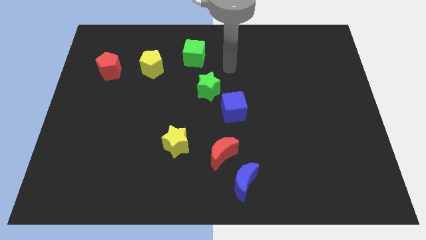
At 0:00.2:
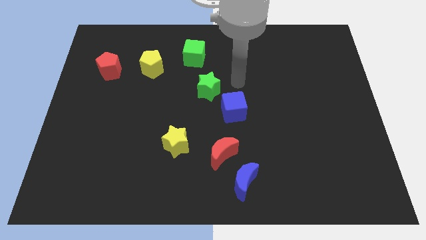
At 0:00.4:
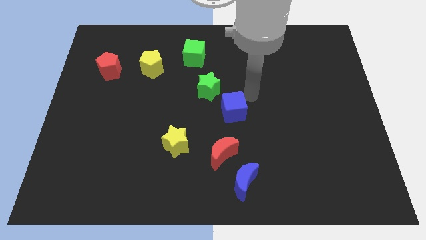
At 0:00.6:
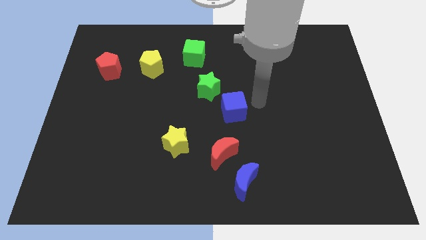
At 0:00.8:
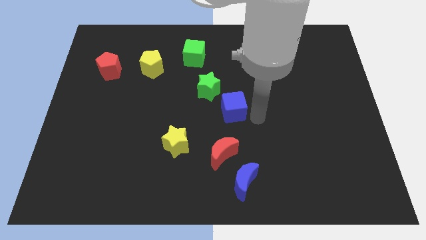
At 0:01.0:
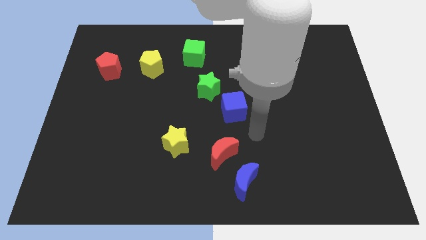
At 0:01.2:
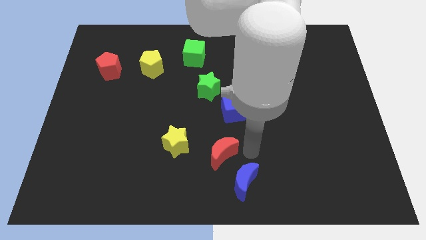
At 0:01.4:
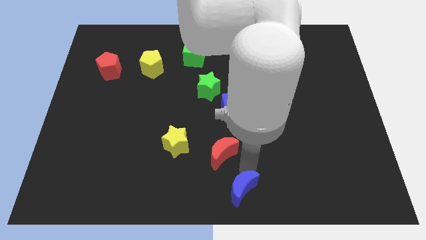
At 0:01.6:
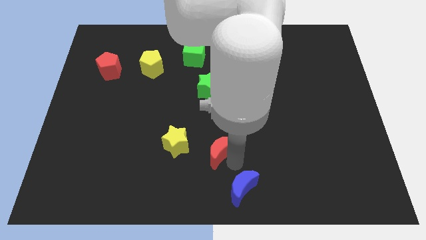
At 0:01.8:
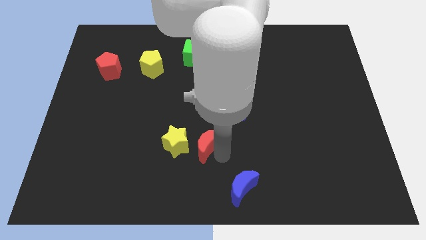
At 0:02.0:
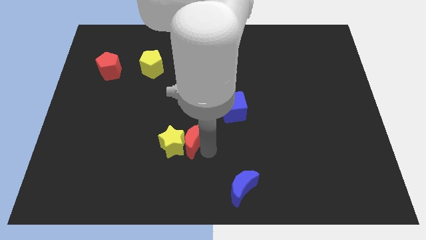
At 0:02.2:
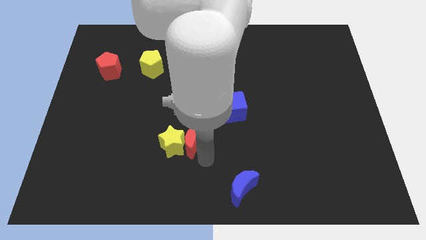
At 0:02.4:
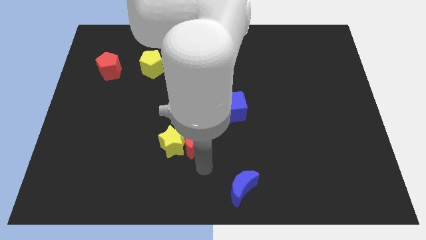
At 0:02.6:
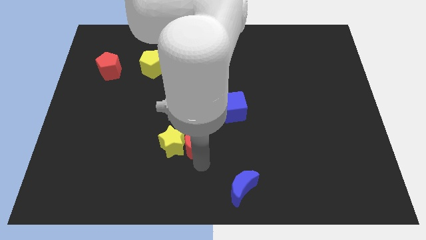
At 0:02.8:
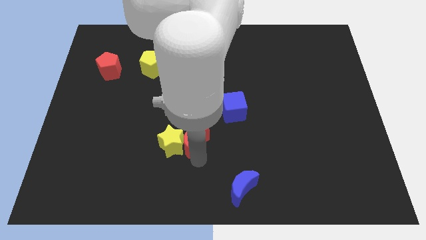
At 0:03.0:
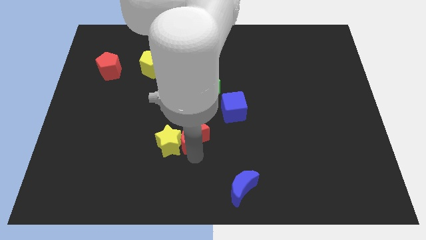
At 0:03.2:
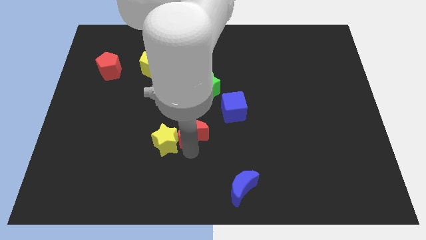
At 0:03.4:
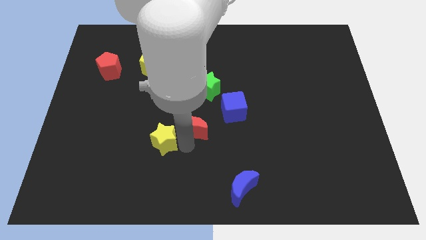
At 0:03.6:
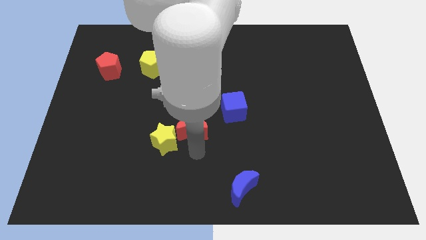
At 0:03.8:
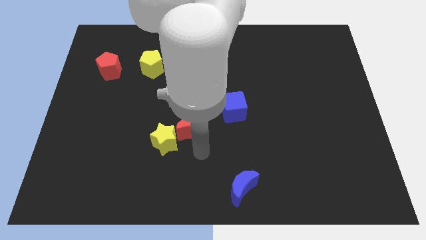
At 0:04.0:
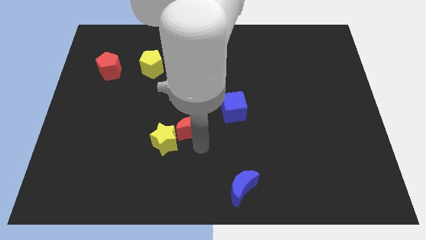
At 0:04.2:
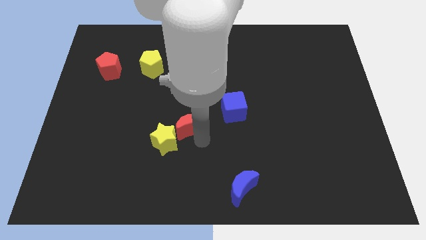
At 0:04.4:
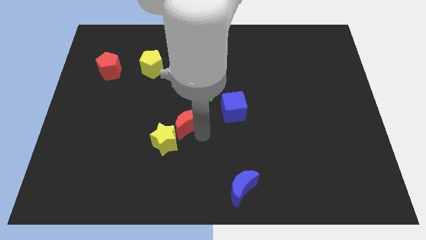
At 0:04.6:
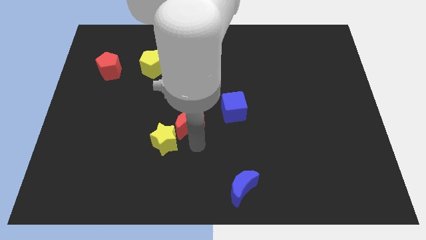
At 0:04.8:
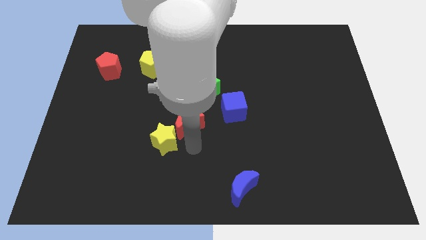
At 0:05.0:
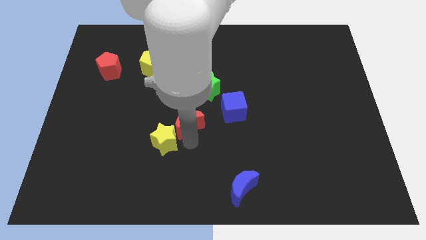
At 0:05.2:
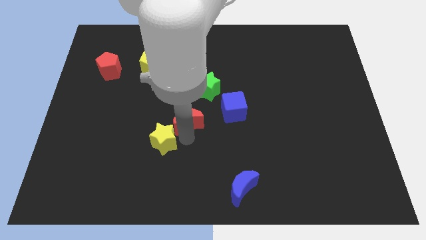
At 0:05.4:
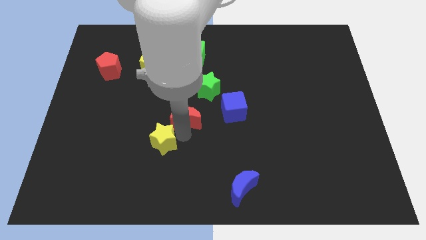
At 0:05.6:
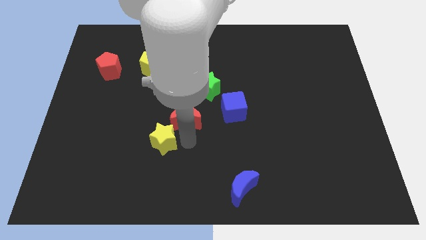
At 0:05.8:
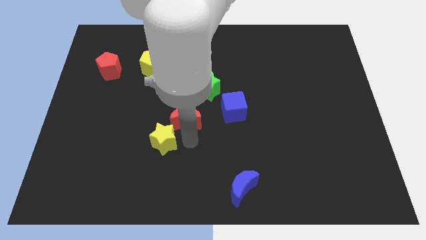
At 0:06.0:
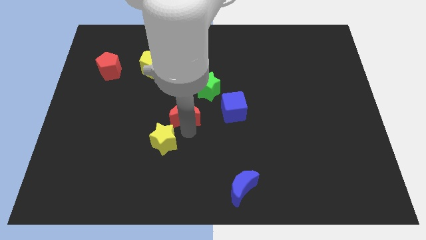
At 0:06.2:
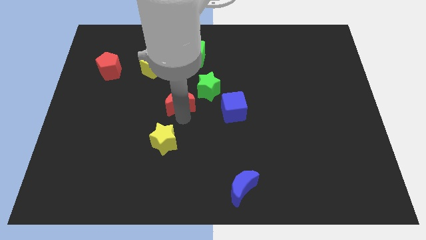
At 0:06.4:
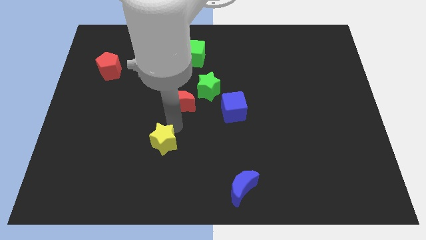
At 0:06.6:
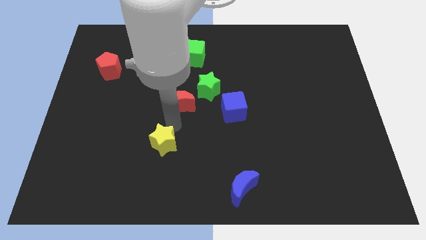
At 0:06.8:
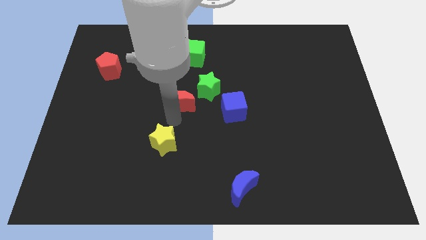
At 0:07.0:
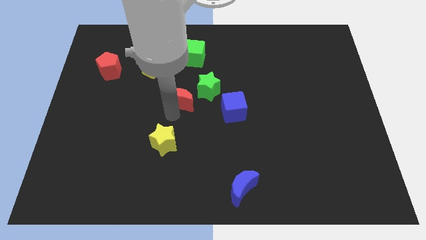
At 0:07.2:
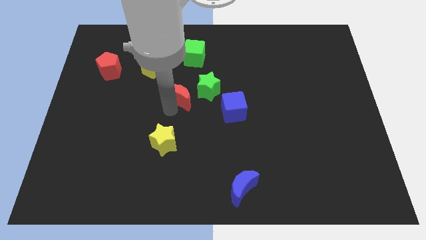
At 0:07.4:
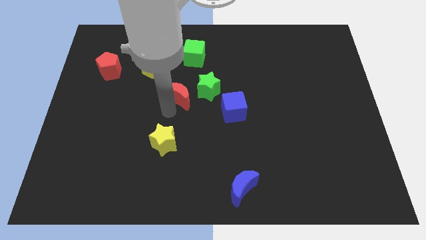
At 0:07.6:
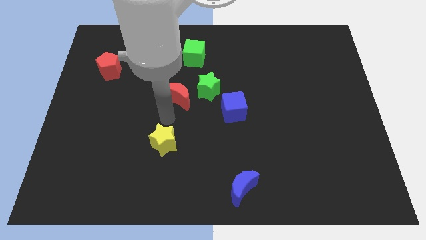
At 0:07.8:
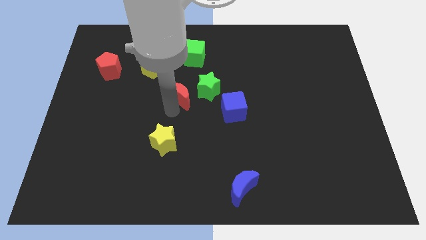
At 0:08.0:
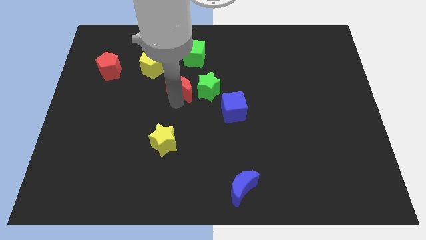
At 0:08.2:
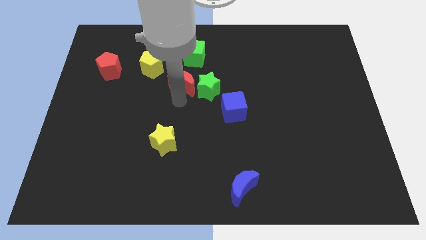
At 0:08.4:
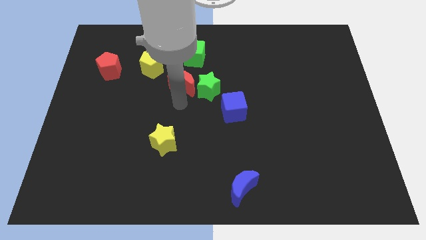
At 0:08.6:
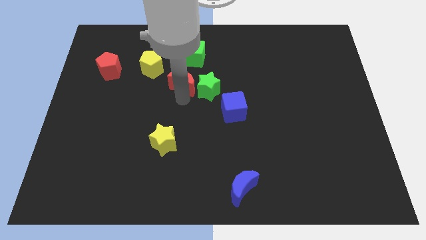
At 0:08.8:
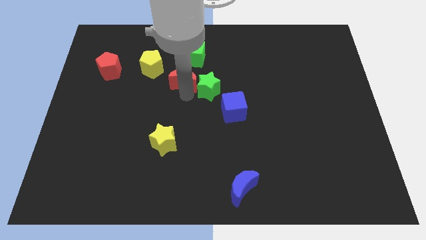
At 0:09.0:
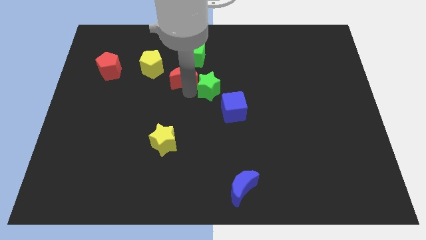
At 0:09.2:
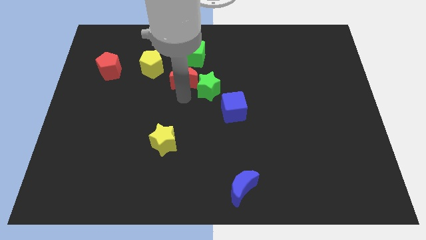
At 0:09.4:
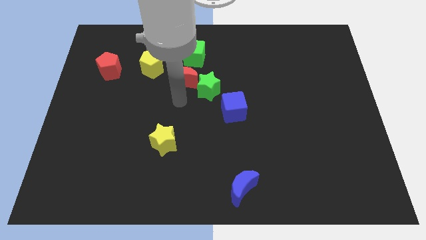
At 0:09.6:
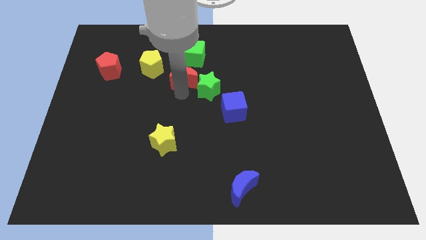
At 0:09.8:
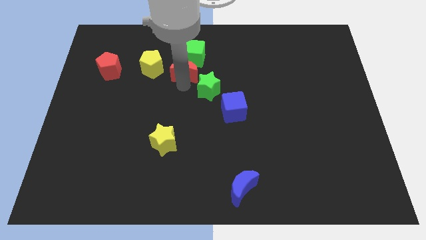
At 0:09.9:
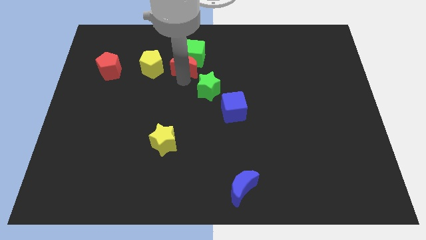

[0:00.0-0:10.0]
slide the red moon next to the green cube

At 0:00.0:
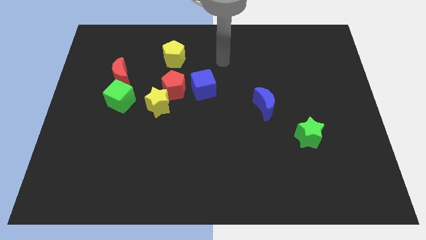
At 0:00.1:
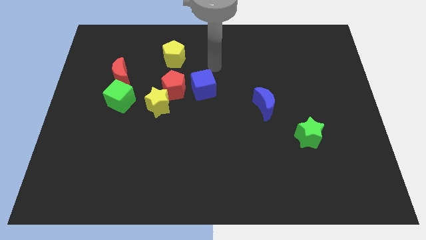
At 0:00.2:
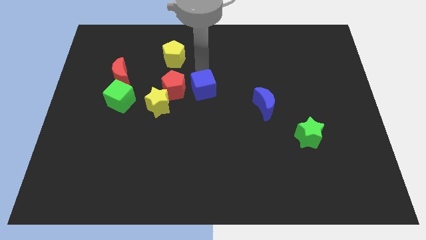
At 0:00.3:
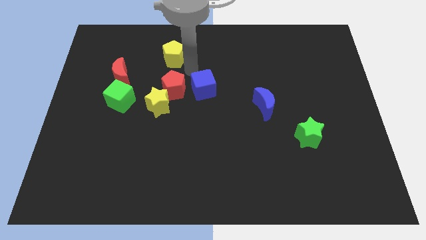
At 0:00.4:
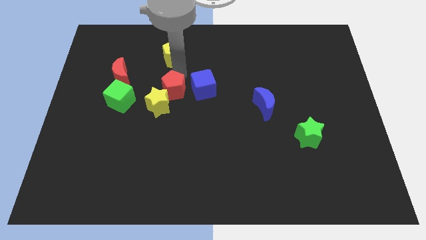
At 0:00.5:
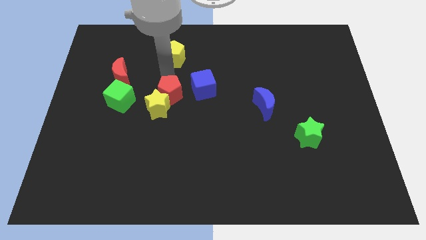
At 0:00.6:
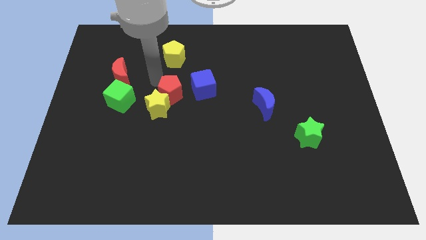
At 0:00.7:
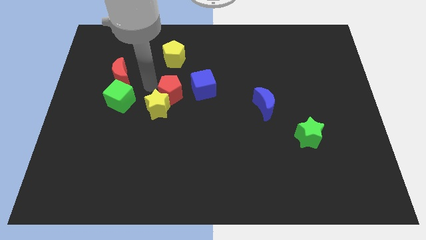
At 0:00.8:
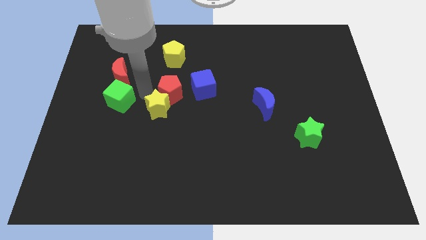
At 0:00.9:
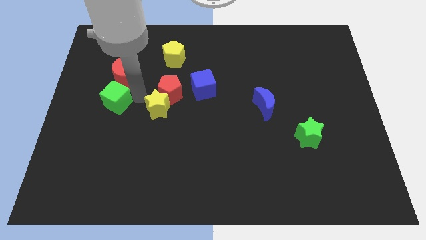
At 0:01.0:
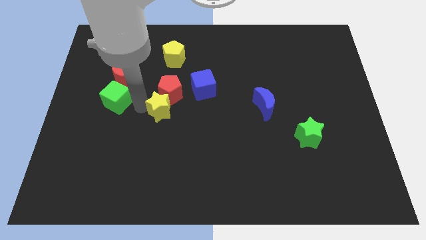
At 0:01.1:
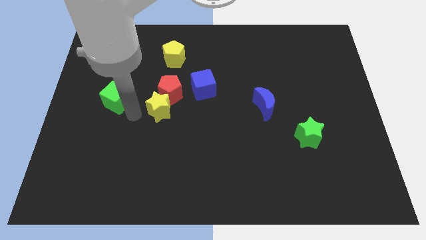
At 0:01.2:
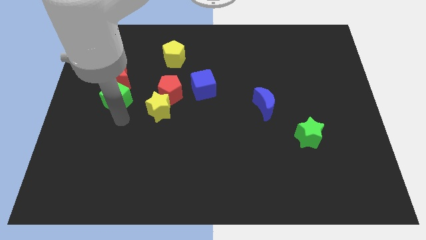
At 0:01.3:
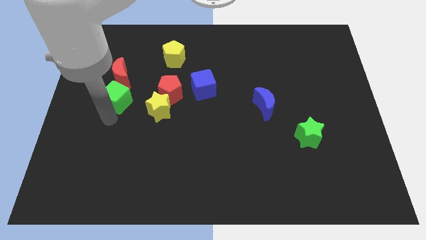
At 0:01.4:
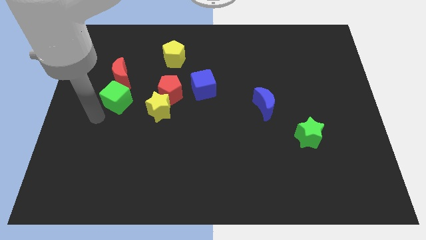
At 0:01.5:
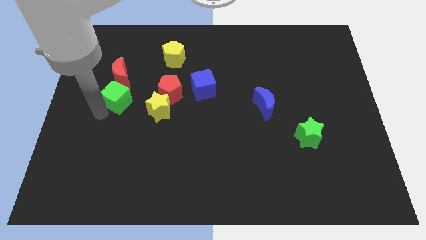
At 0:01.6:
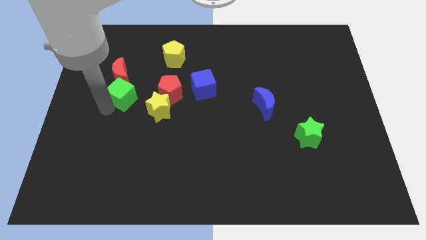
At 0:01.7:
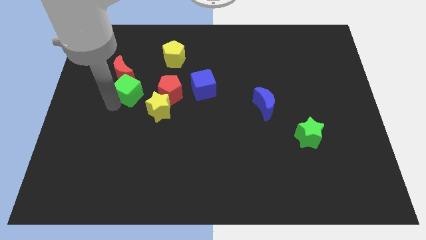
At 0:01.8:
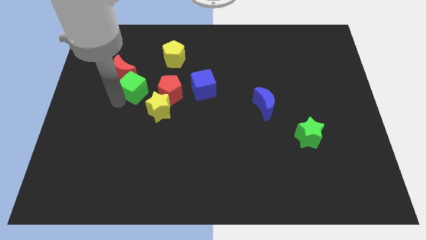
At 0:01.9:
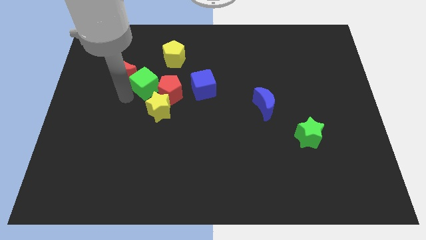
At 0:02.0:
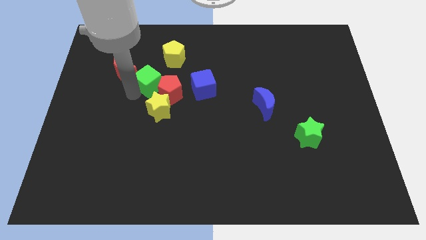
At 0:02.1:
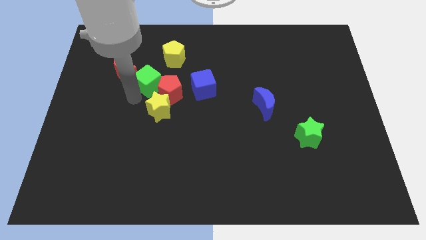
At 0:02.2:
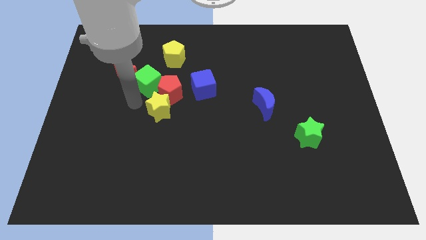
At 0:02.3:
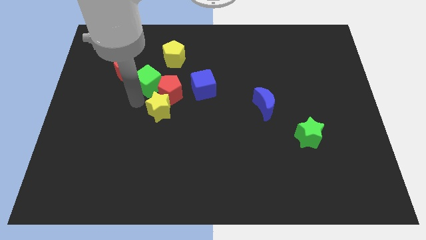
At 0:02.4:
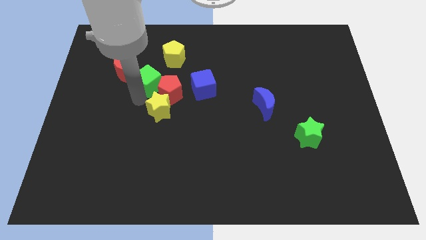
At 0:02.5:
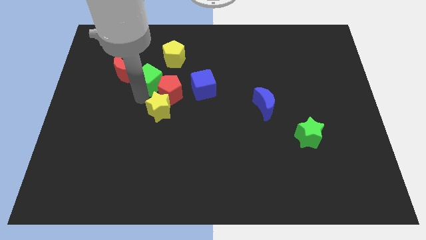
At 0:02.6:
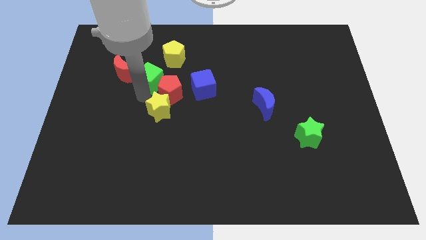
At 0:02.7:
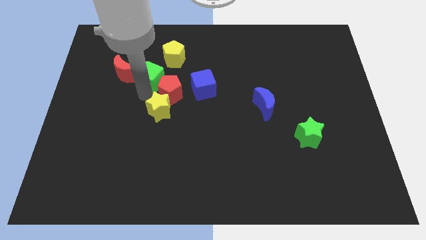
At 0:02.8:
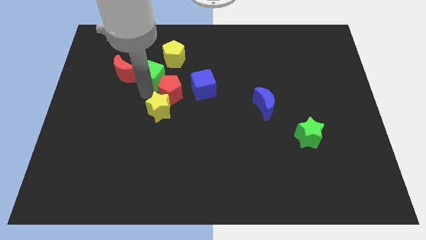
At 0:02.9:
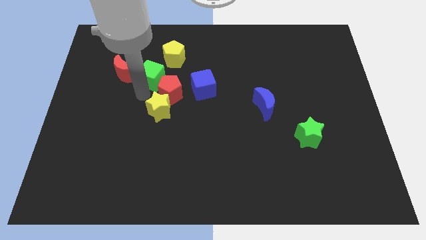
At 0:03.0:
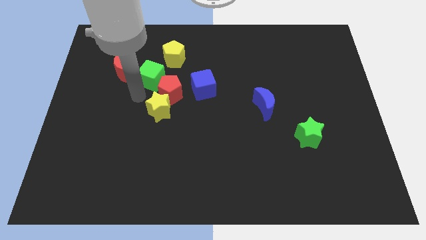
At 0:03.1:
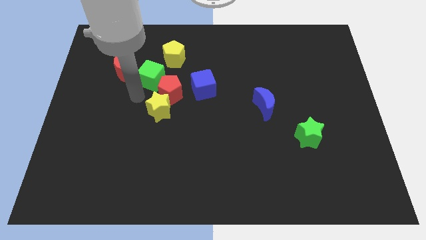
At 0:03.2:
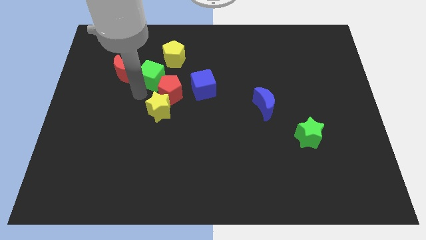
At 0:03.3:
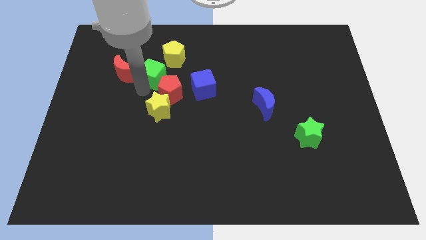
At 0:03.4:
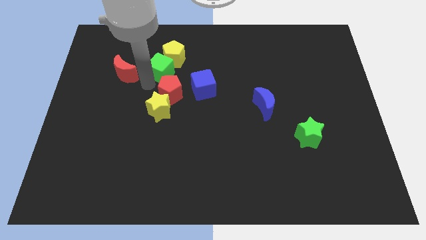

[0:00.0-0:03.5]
slide the green cube towards the yellow pentagon
